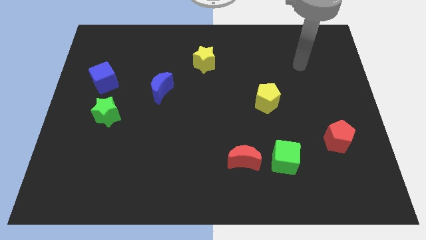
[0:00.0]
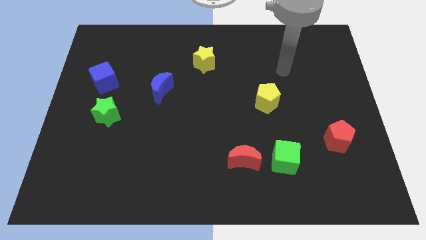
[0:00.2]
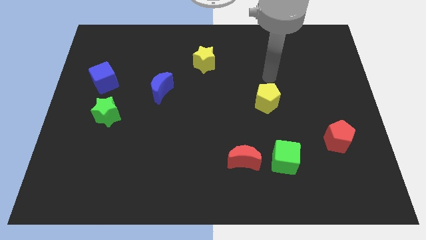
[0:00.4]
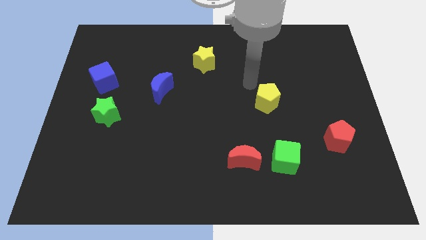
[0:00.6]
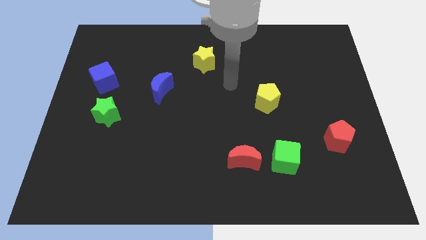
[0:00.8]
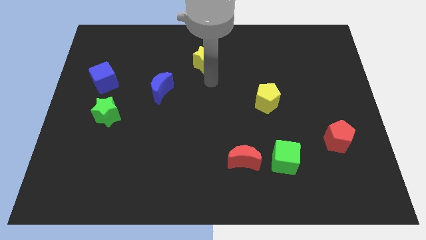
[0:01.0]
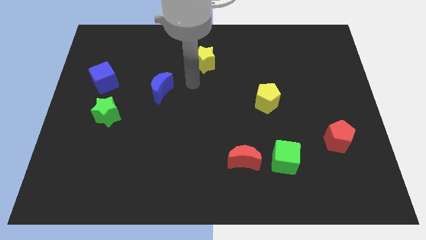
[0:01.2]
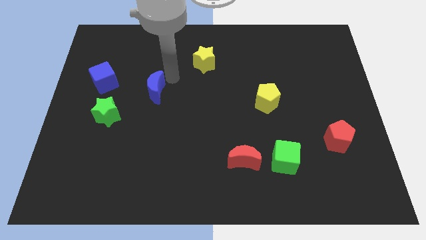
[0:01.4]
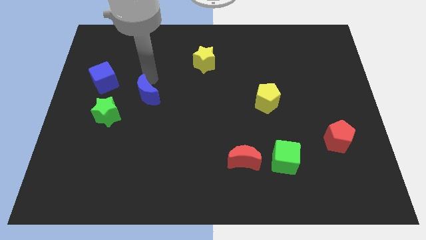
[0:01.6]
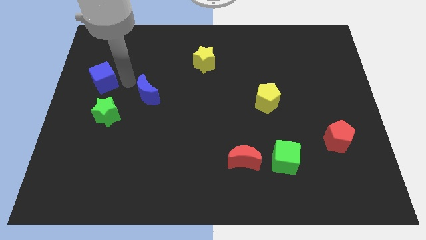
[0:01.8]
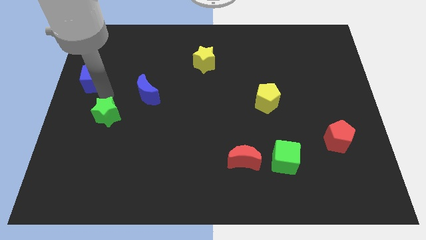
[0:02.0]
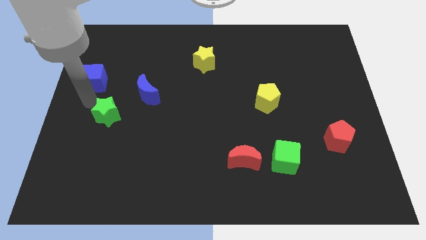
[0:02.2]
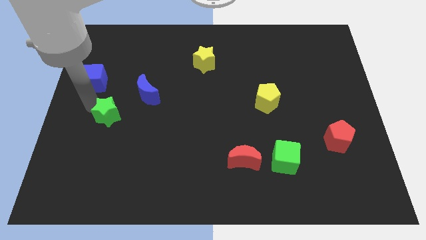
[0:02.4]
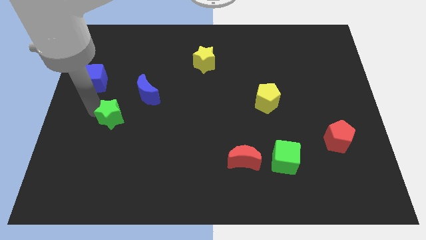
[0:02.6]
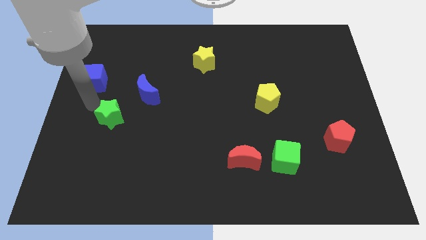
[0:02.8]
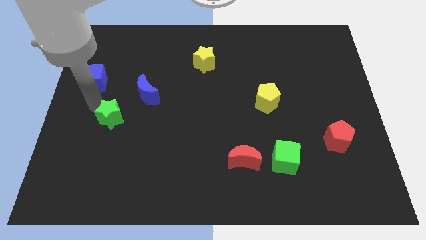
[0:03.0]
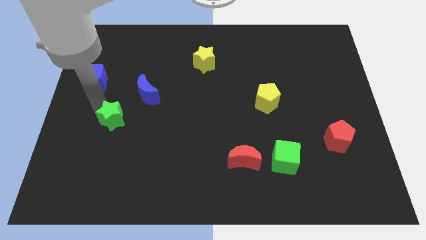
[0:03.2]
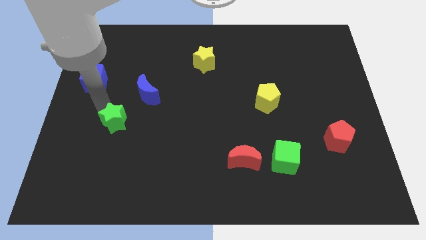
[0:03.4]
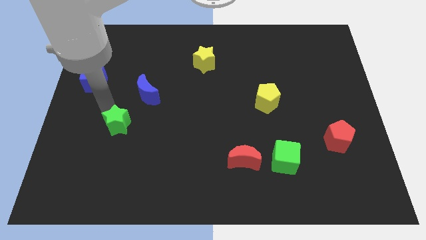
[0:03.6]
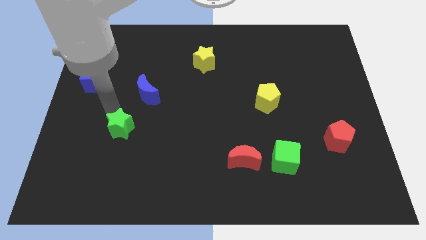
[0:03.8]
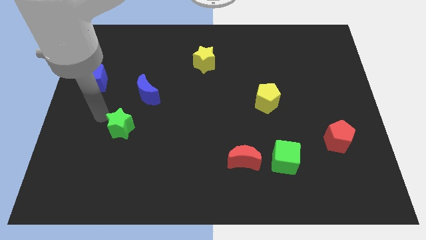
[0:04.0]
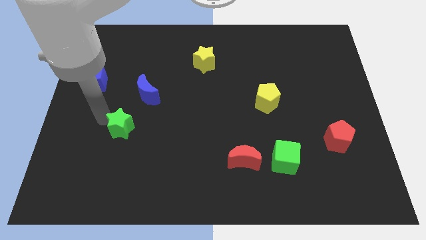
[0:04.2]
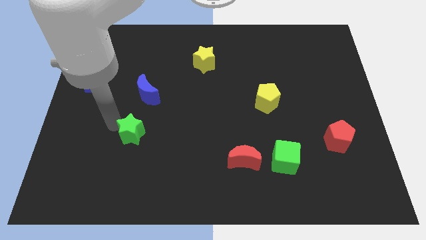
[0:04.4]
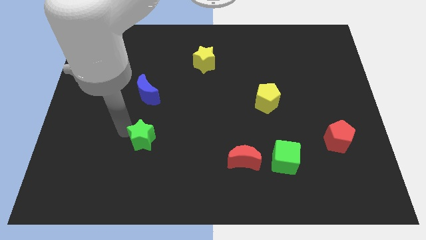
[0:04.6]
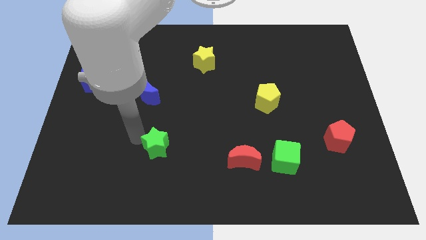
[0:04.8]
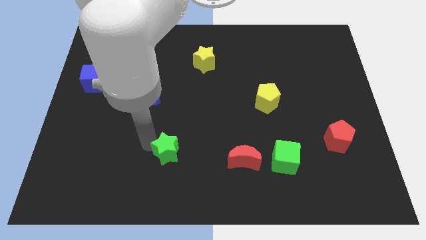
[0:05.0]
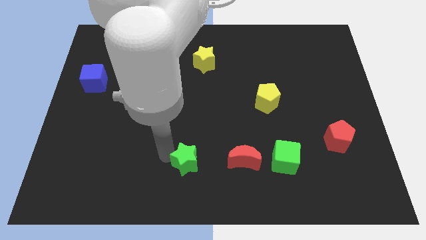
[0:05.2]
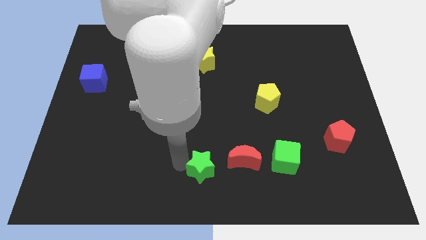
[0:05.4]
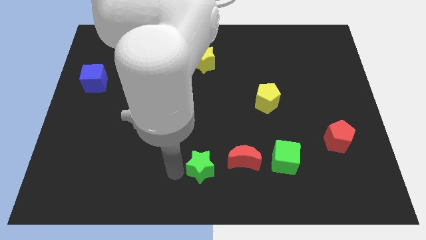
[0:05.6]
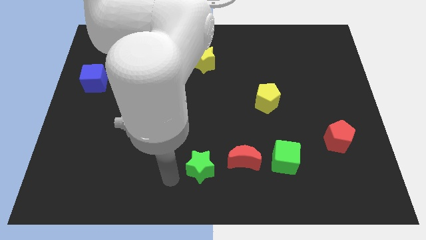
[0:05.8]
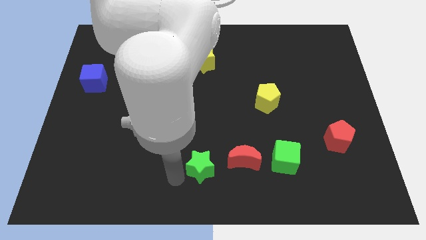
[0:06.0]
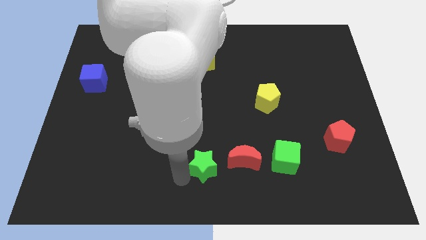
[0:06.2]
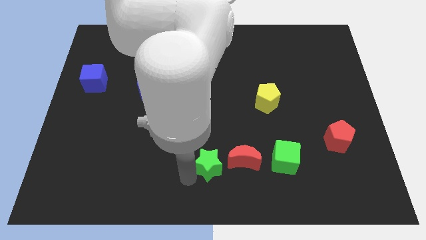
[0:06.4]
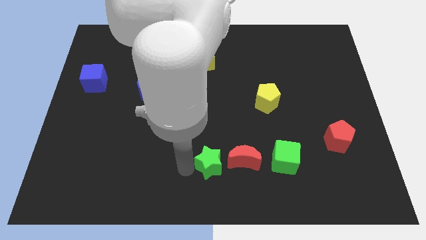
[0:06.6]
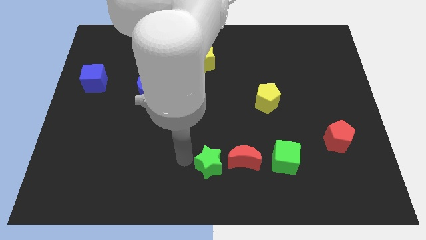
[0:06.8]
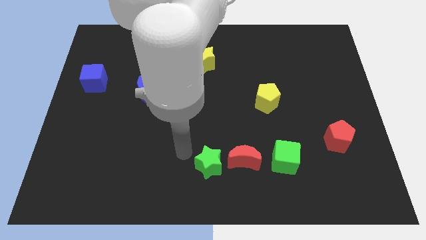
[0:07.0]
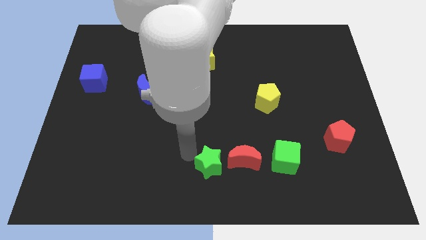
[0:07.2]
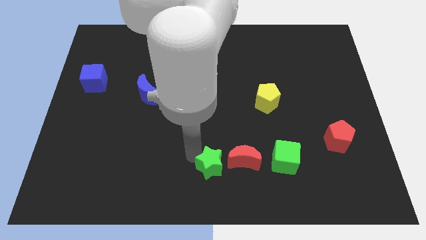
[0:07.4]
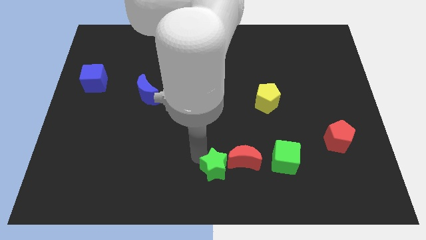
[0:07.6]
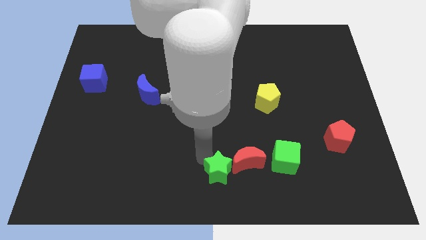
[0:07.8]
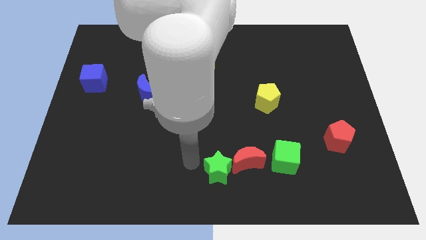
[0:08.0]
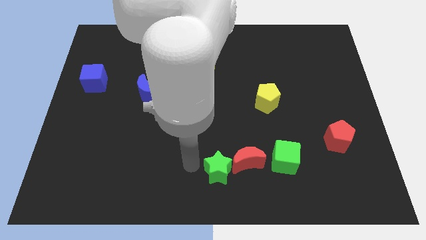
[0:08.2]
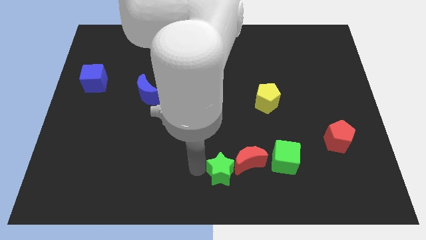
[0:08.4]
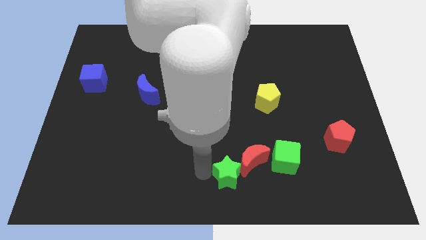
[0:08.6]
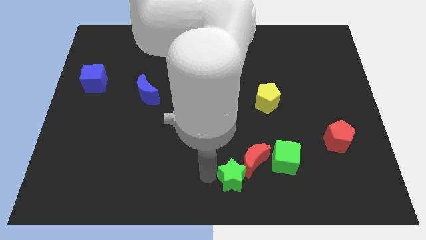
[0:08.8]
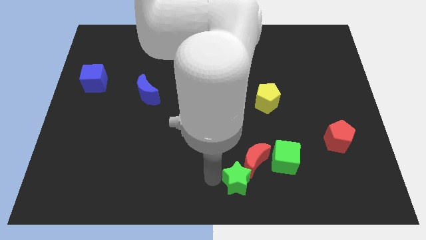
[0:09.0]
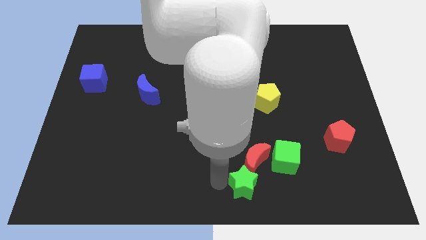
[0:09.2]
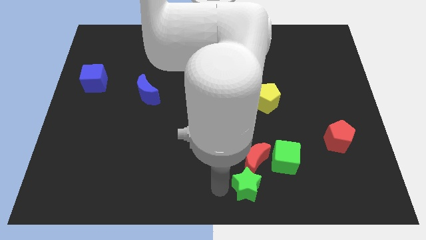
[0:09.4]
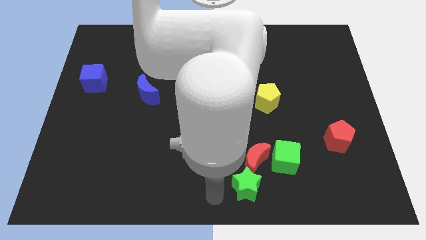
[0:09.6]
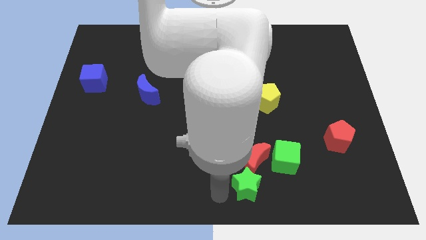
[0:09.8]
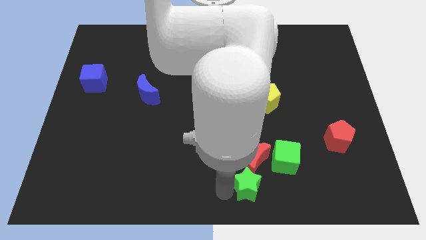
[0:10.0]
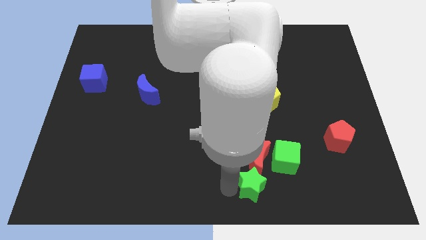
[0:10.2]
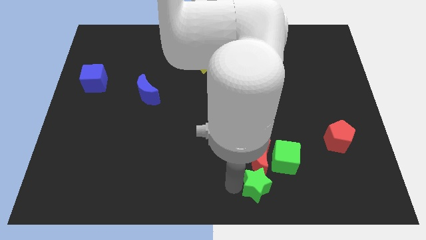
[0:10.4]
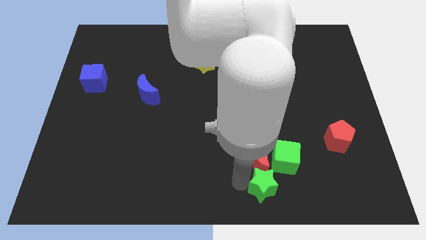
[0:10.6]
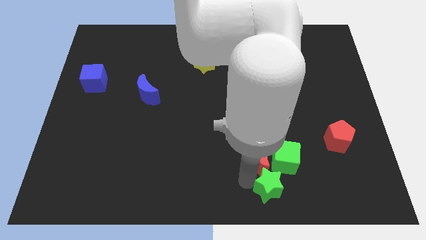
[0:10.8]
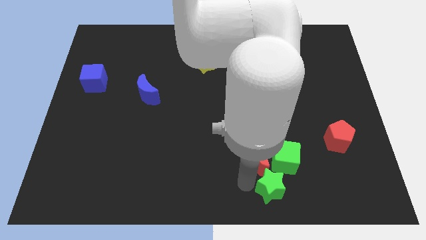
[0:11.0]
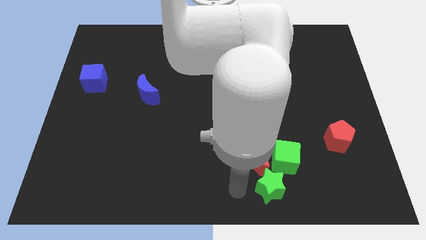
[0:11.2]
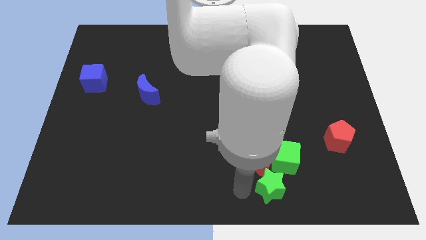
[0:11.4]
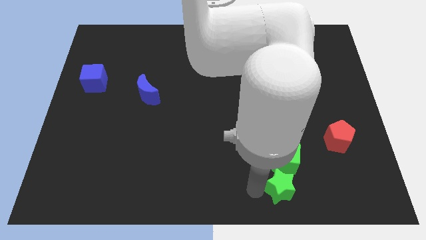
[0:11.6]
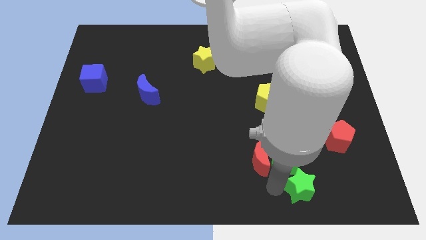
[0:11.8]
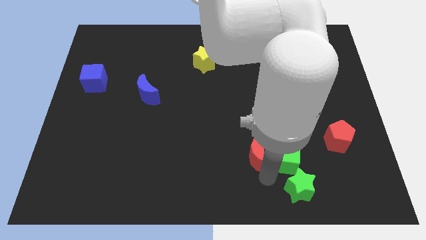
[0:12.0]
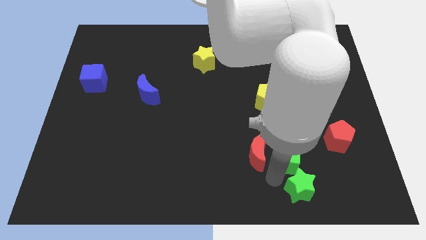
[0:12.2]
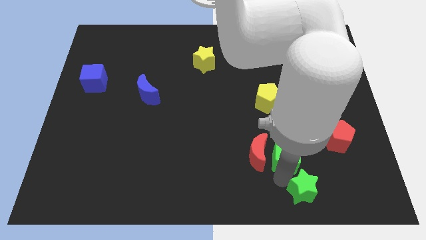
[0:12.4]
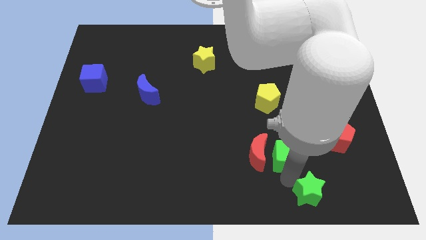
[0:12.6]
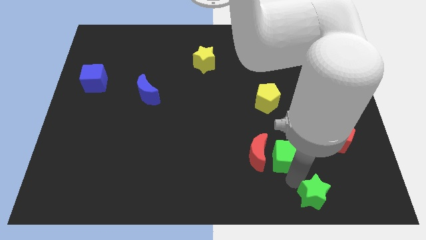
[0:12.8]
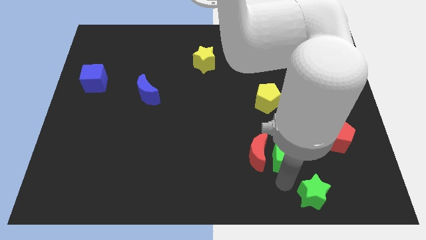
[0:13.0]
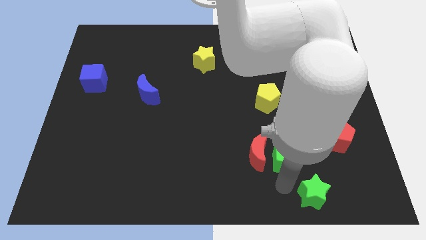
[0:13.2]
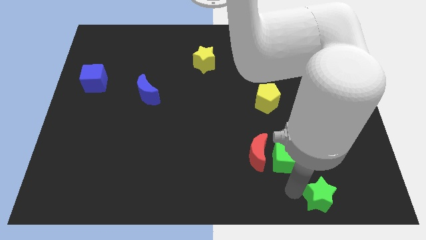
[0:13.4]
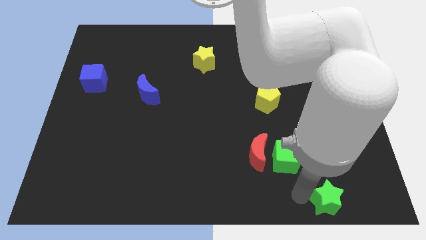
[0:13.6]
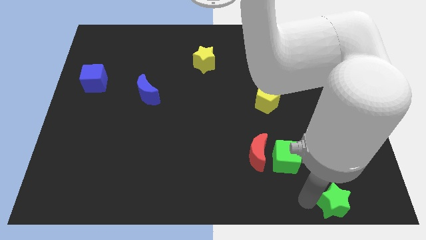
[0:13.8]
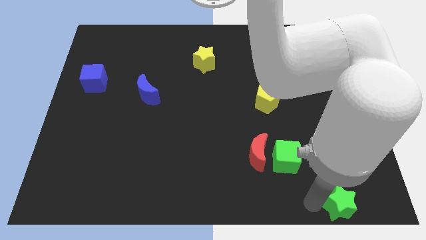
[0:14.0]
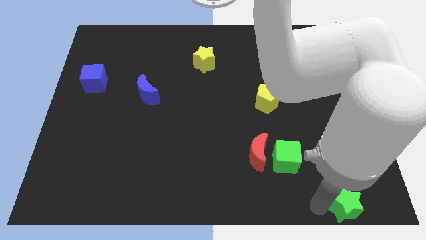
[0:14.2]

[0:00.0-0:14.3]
move the green star to the bottom right corner
